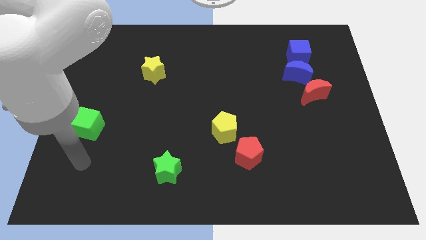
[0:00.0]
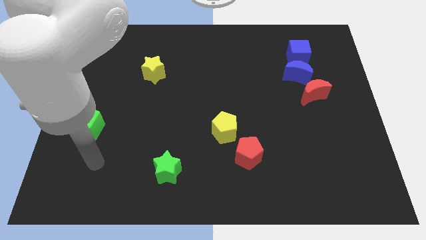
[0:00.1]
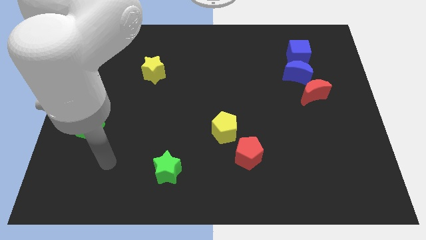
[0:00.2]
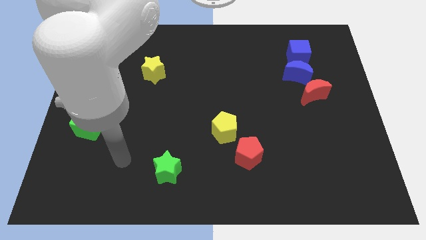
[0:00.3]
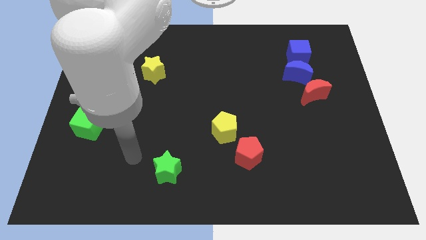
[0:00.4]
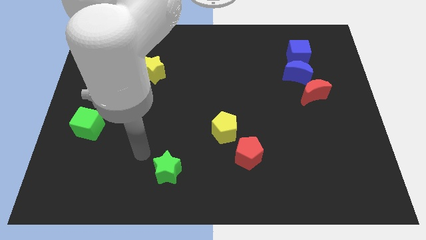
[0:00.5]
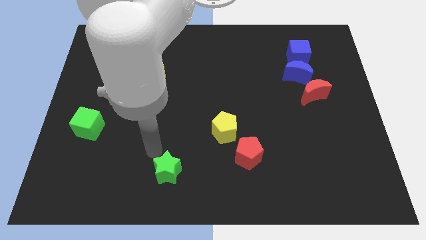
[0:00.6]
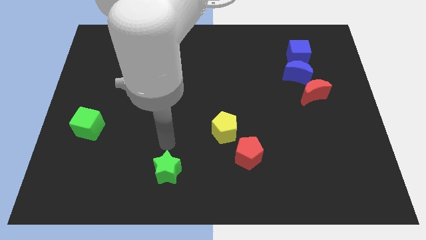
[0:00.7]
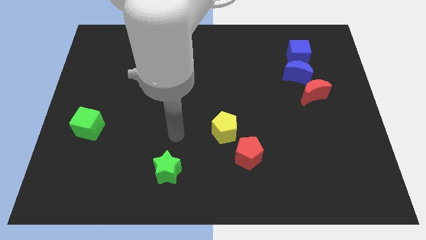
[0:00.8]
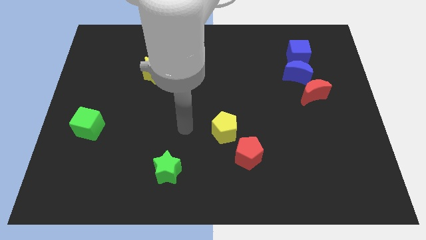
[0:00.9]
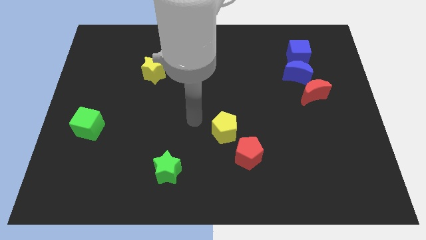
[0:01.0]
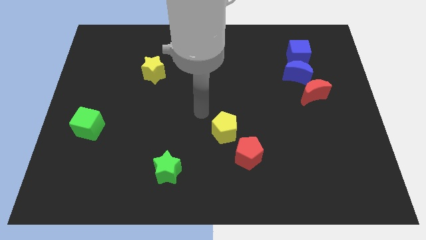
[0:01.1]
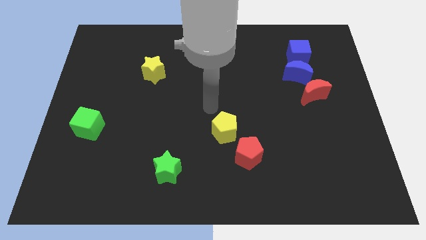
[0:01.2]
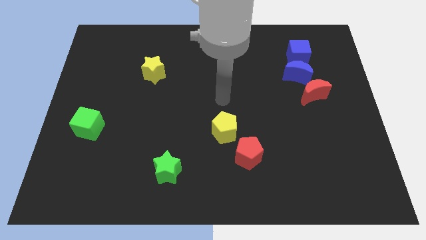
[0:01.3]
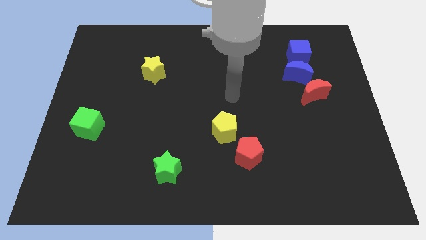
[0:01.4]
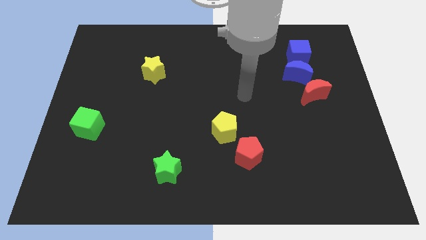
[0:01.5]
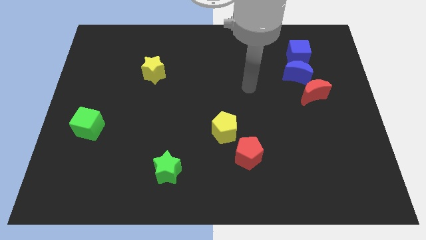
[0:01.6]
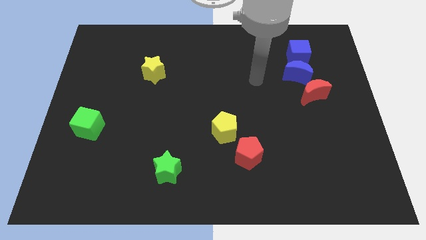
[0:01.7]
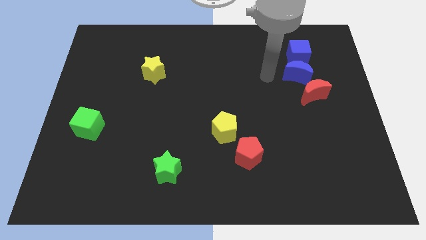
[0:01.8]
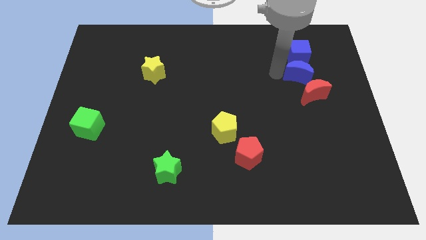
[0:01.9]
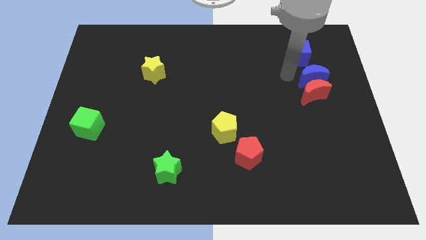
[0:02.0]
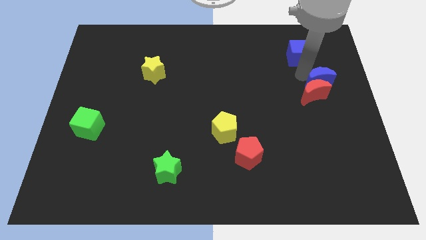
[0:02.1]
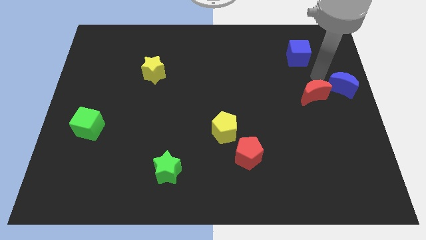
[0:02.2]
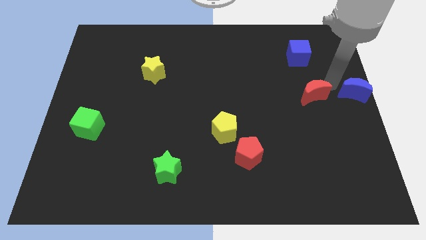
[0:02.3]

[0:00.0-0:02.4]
pull the red moon apart from the blue moon

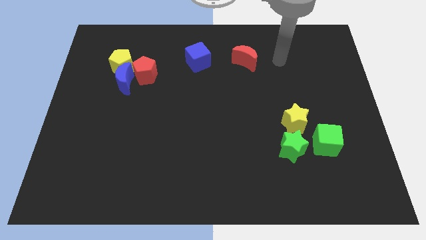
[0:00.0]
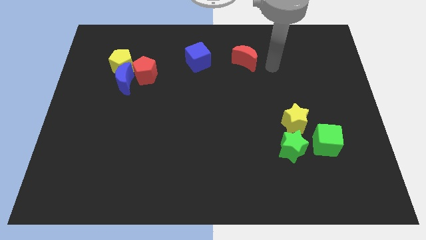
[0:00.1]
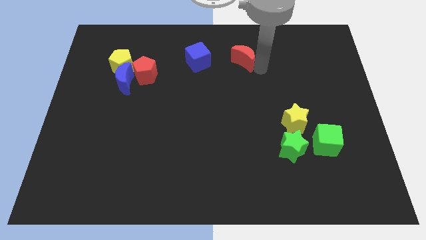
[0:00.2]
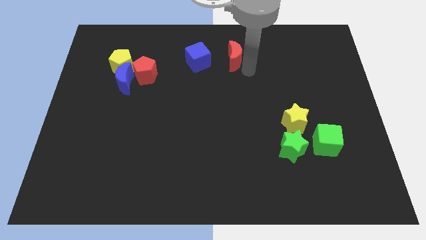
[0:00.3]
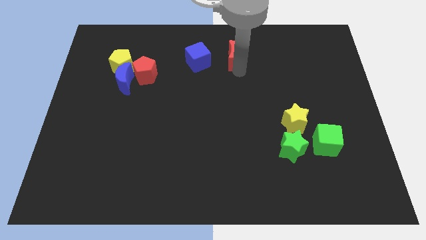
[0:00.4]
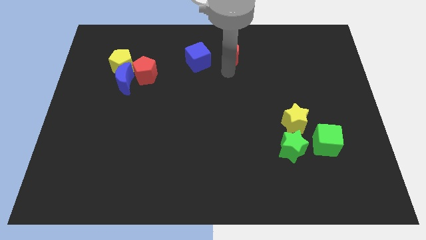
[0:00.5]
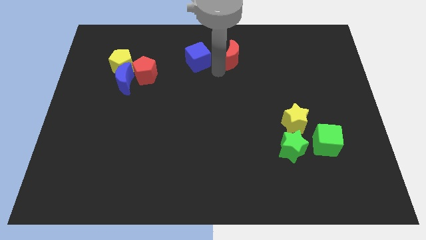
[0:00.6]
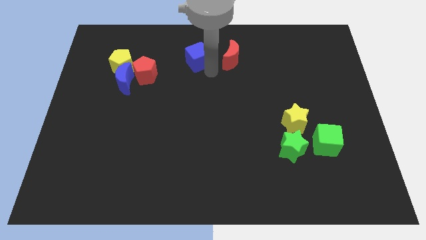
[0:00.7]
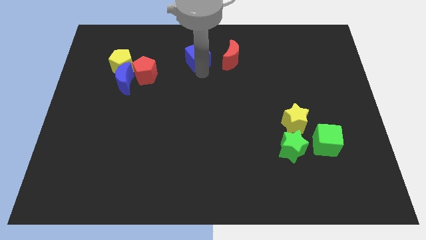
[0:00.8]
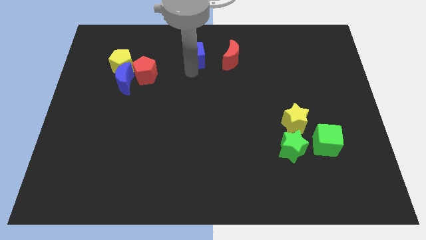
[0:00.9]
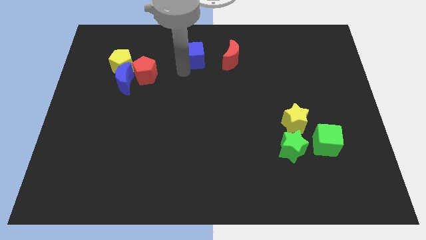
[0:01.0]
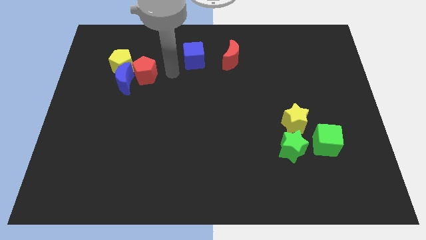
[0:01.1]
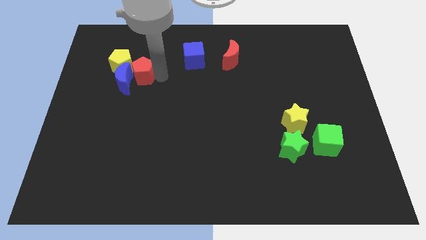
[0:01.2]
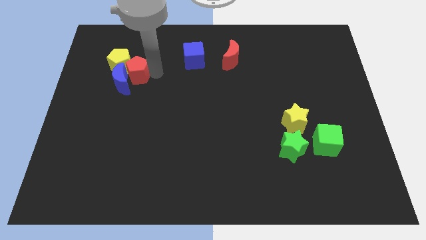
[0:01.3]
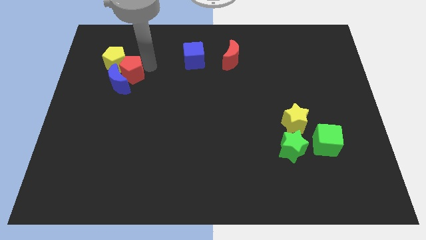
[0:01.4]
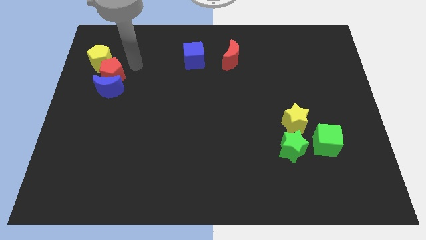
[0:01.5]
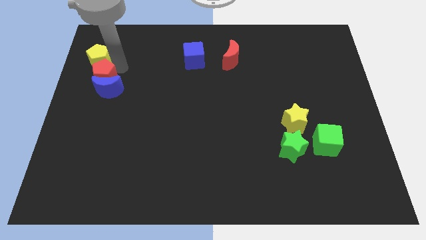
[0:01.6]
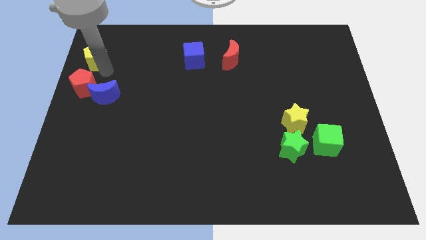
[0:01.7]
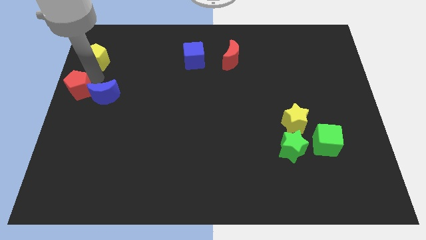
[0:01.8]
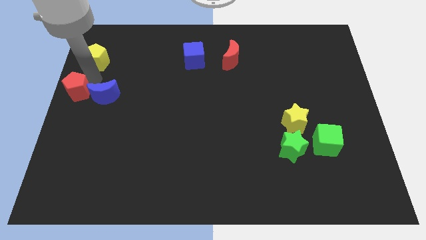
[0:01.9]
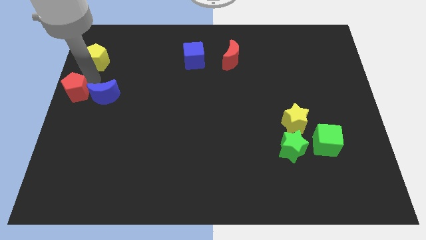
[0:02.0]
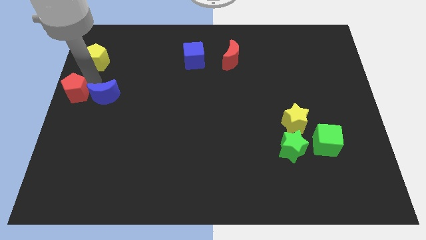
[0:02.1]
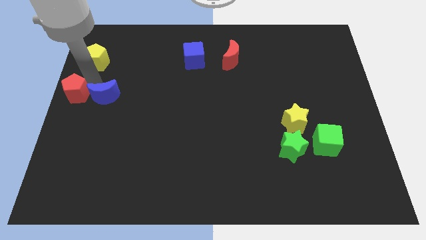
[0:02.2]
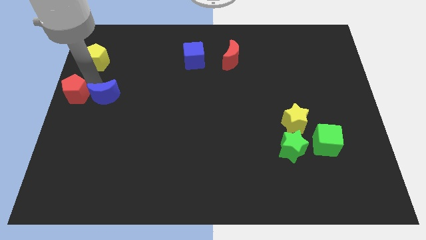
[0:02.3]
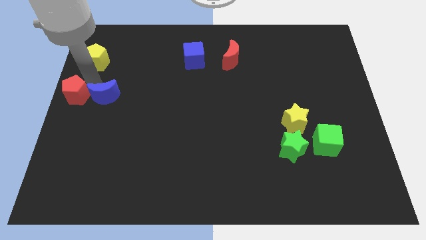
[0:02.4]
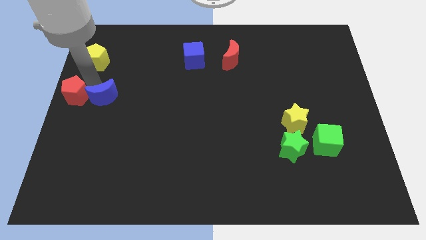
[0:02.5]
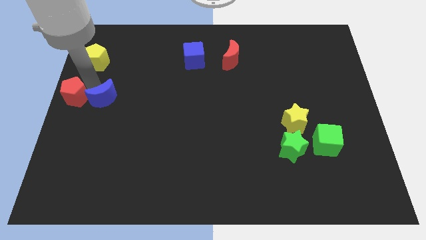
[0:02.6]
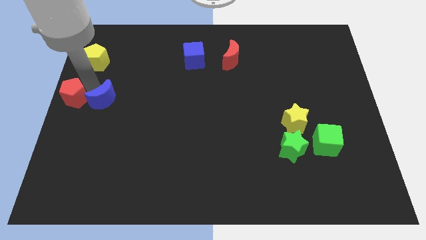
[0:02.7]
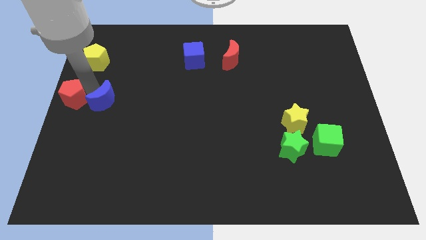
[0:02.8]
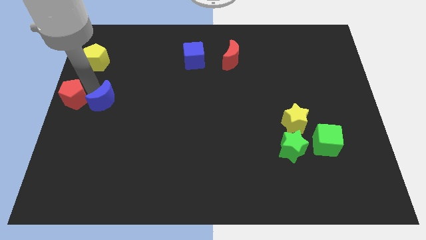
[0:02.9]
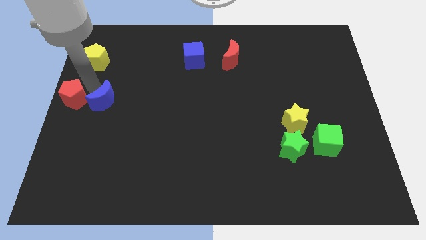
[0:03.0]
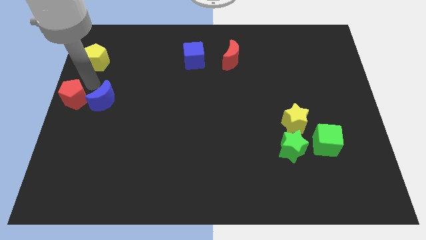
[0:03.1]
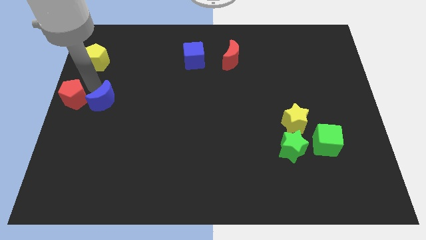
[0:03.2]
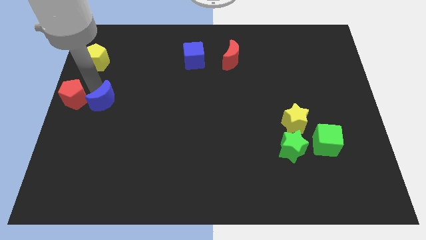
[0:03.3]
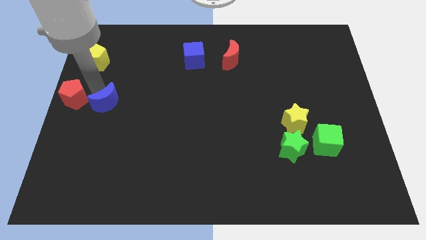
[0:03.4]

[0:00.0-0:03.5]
pull the blue moon apart from the yellow pentagon and red pentagon

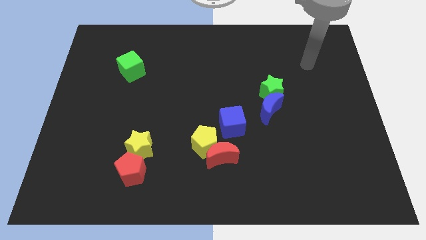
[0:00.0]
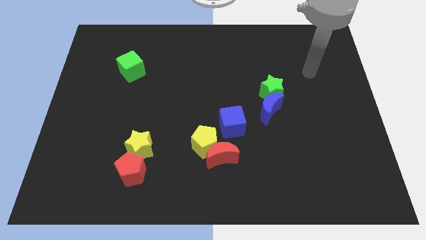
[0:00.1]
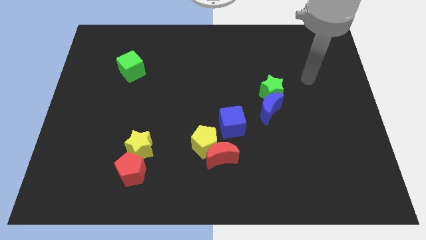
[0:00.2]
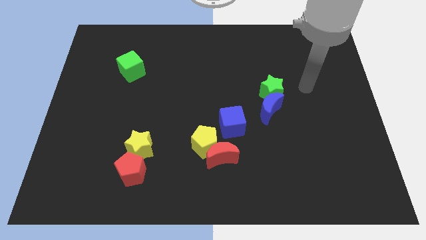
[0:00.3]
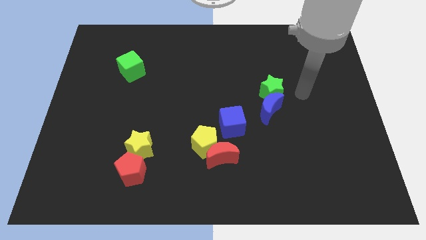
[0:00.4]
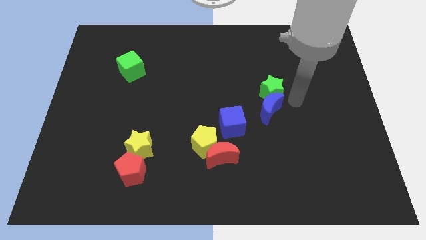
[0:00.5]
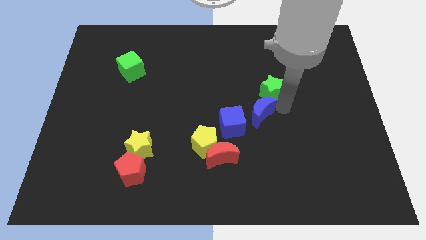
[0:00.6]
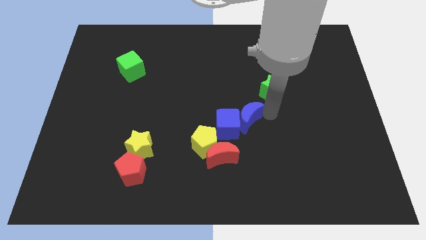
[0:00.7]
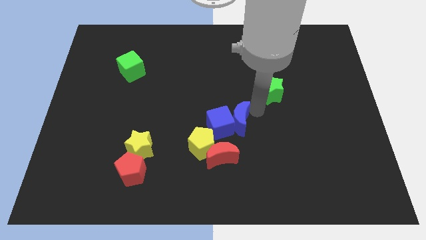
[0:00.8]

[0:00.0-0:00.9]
separate the green star from the blue moon

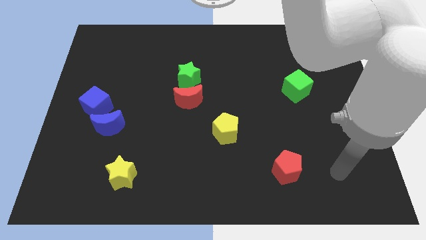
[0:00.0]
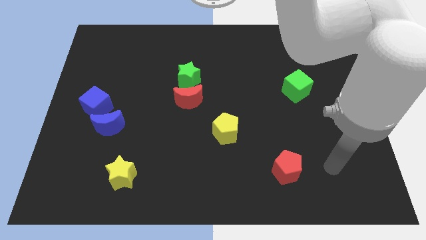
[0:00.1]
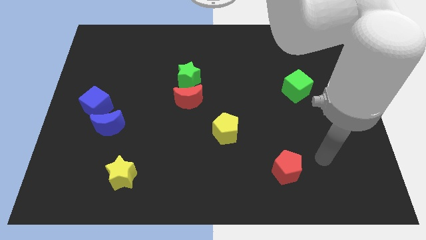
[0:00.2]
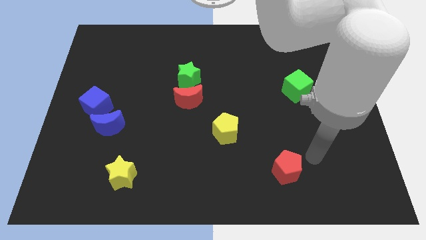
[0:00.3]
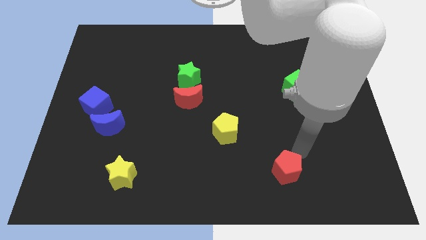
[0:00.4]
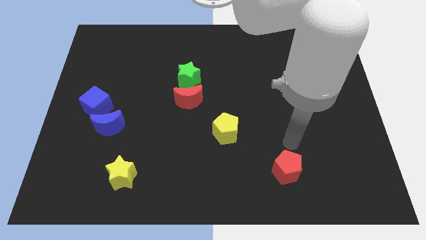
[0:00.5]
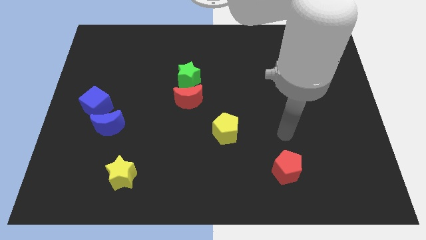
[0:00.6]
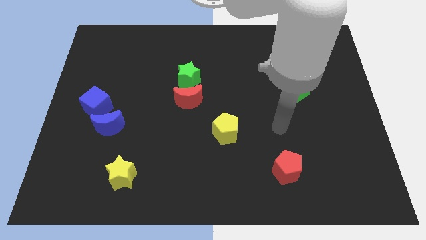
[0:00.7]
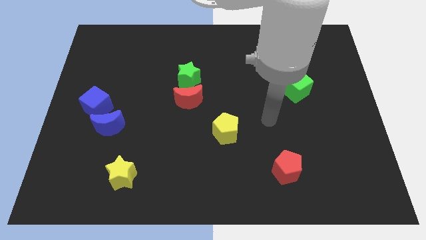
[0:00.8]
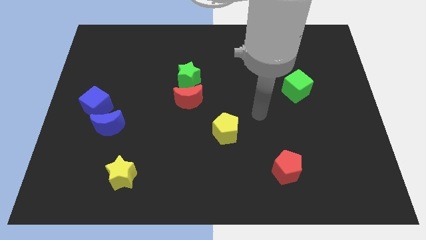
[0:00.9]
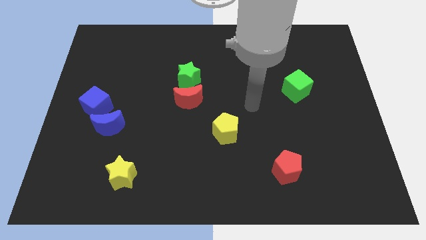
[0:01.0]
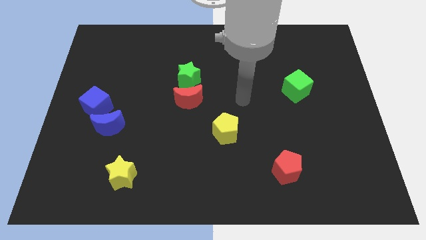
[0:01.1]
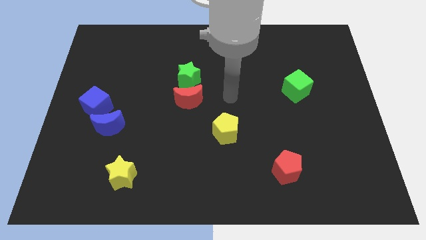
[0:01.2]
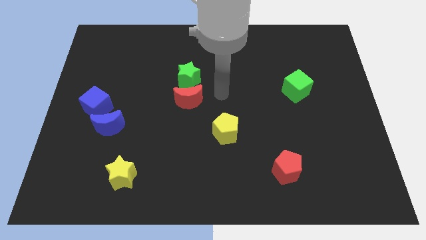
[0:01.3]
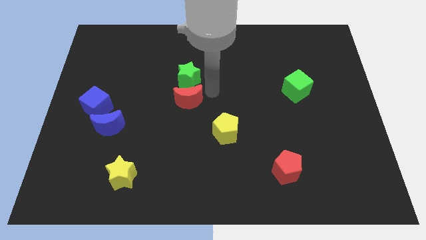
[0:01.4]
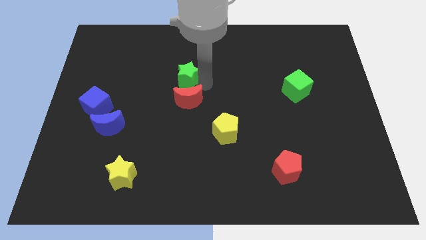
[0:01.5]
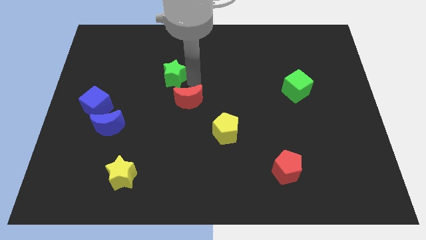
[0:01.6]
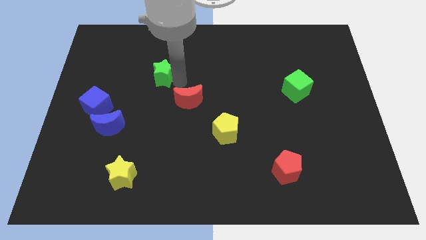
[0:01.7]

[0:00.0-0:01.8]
move the red moon away from the green star

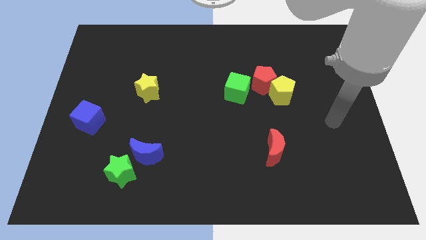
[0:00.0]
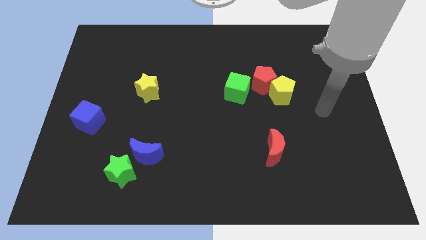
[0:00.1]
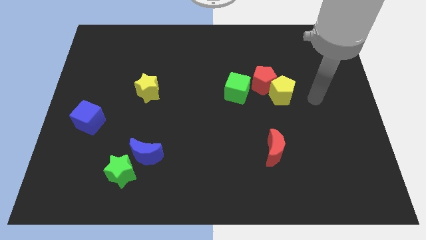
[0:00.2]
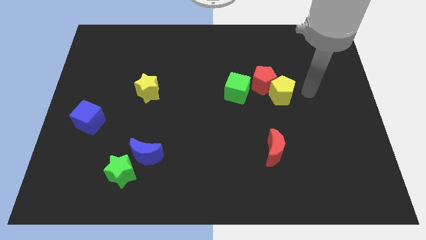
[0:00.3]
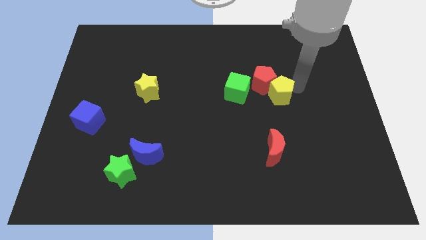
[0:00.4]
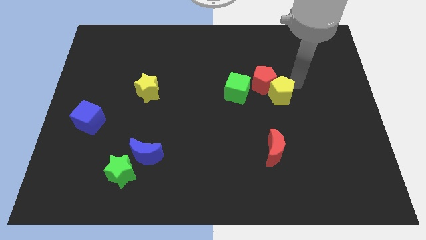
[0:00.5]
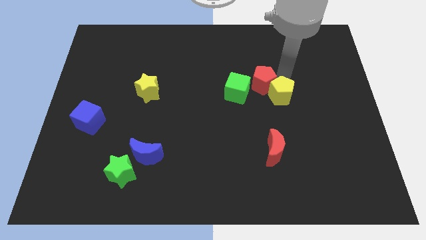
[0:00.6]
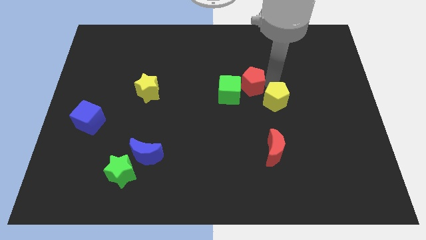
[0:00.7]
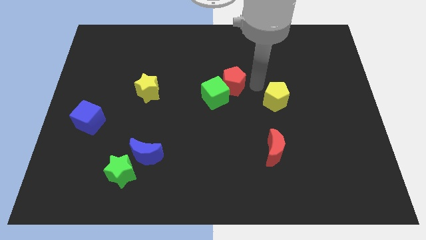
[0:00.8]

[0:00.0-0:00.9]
move the yellow pentagon away from the red pentagon
